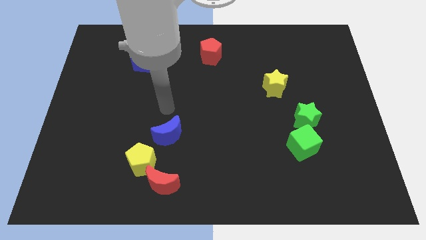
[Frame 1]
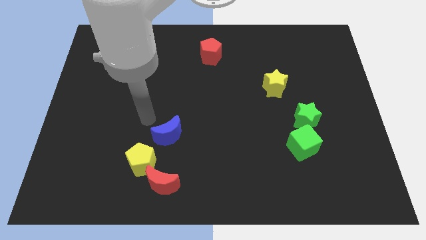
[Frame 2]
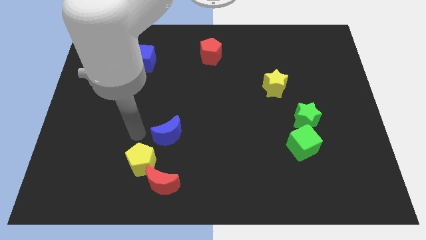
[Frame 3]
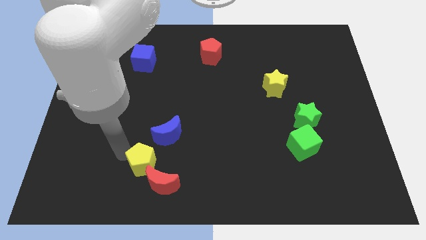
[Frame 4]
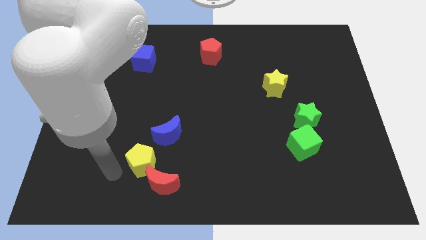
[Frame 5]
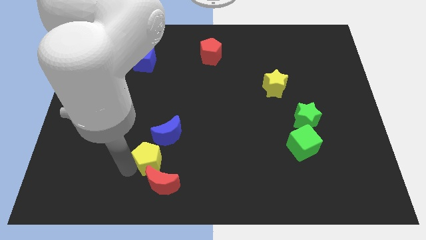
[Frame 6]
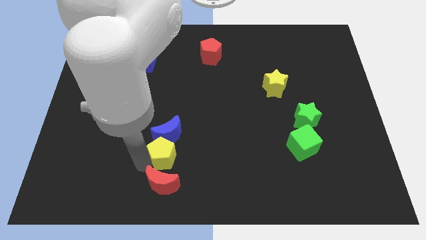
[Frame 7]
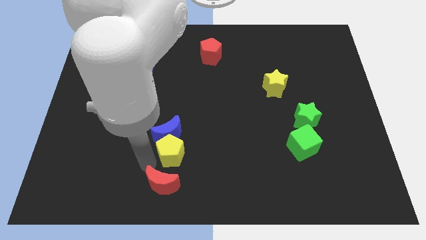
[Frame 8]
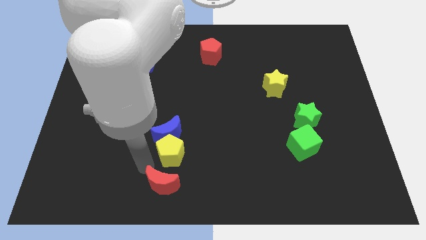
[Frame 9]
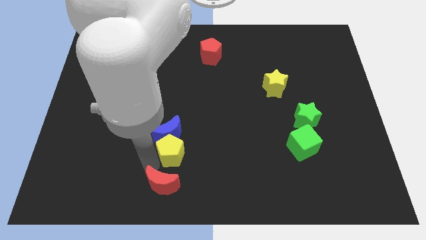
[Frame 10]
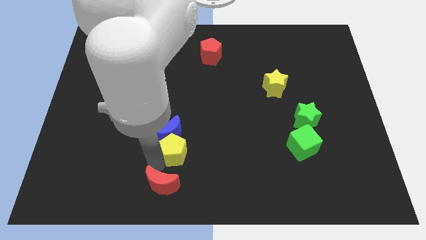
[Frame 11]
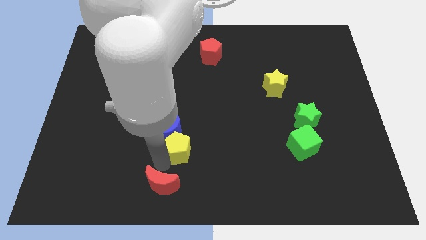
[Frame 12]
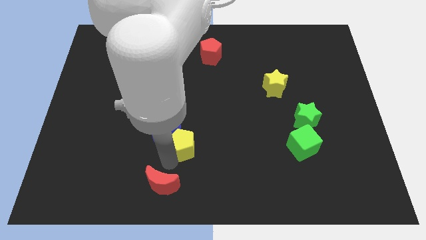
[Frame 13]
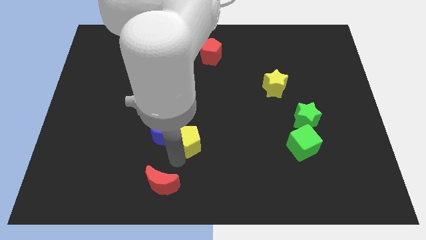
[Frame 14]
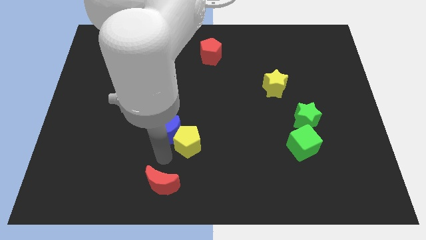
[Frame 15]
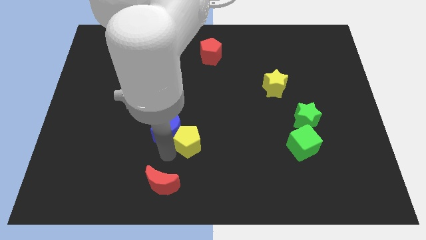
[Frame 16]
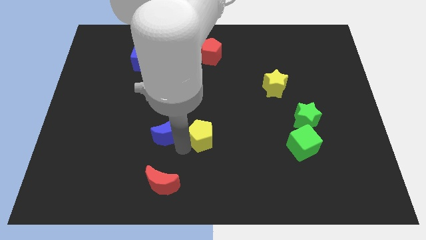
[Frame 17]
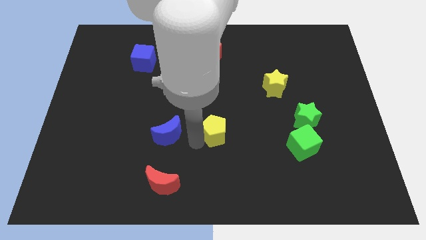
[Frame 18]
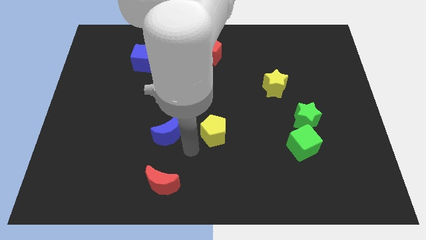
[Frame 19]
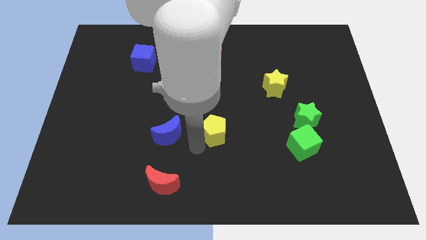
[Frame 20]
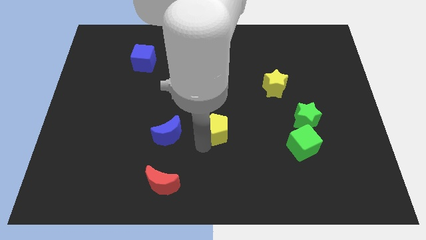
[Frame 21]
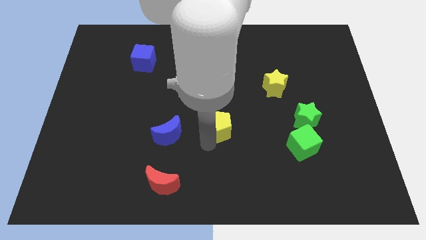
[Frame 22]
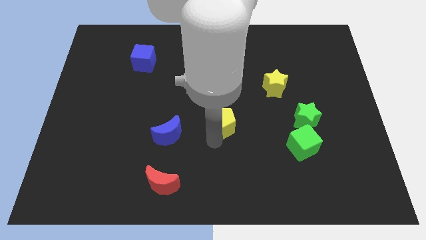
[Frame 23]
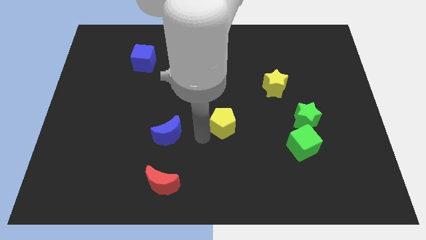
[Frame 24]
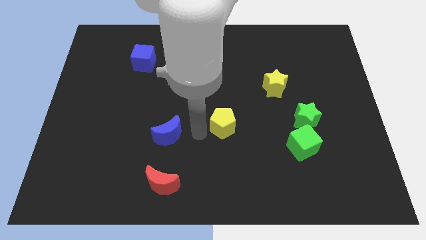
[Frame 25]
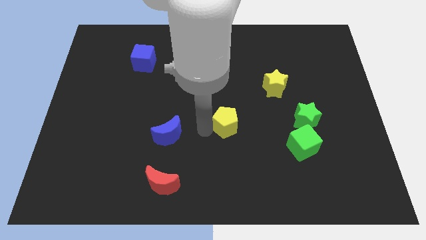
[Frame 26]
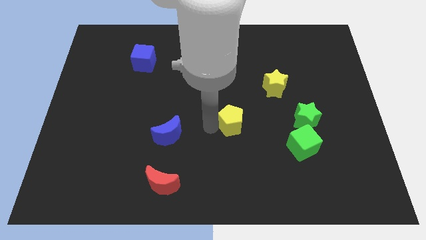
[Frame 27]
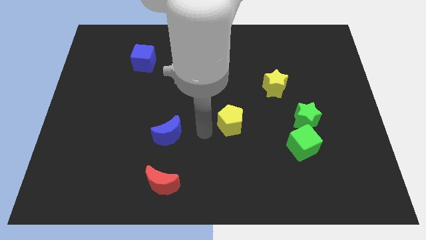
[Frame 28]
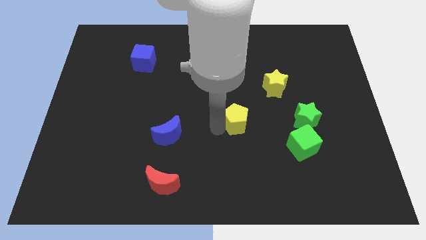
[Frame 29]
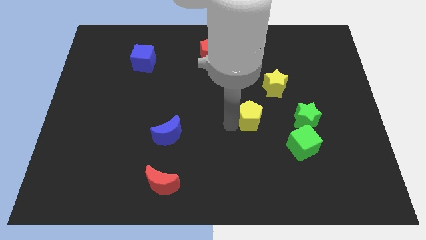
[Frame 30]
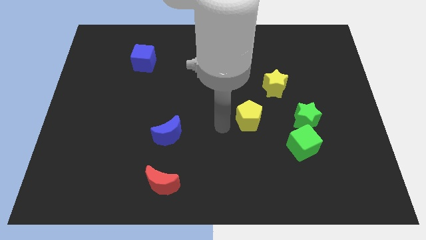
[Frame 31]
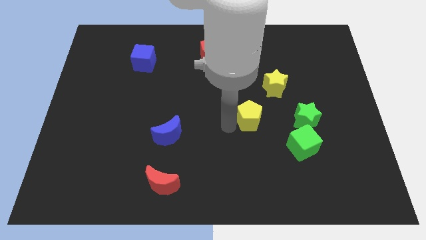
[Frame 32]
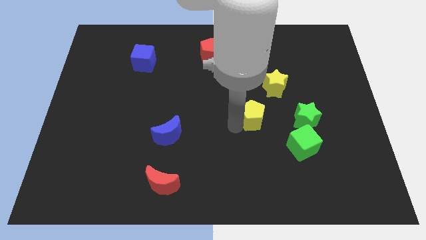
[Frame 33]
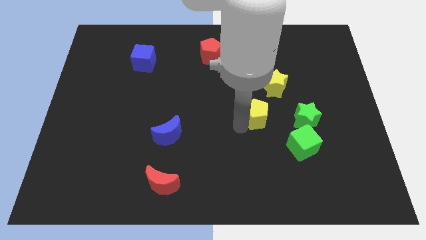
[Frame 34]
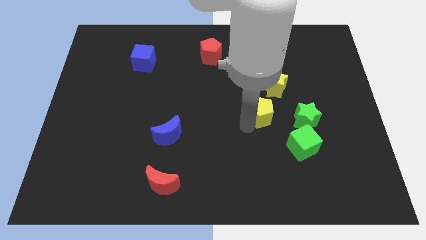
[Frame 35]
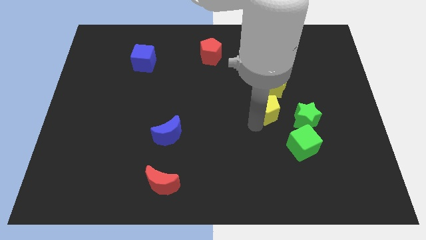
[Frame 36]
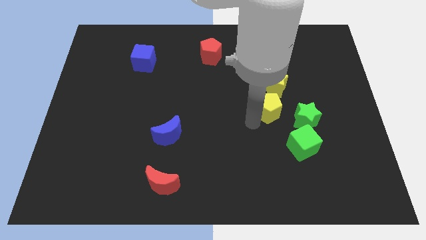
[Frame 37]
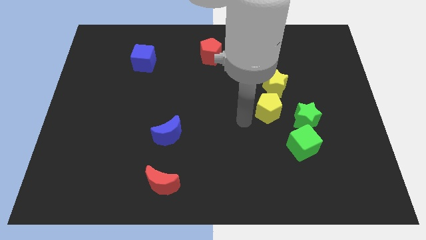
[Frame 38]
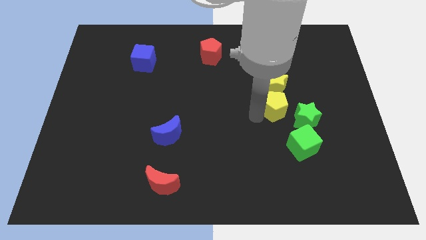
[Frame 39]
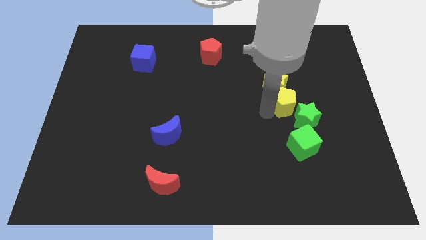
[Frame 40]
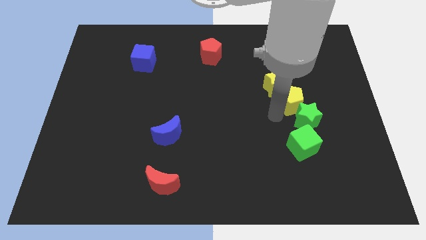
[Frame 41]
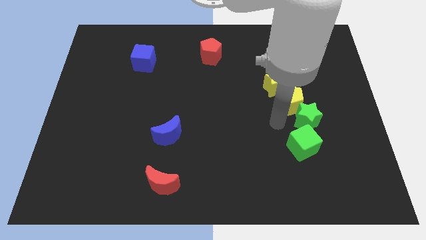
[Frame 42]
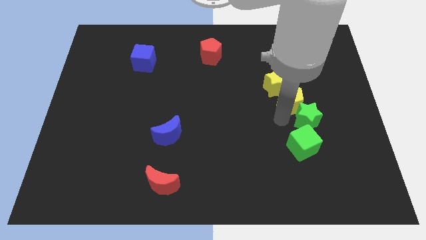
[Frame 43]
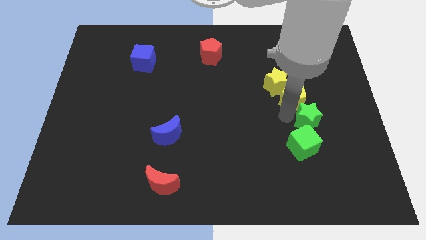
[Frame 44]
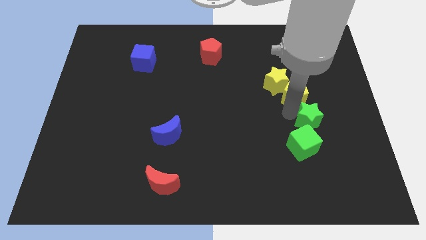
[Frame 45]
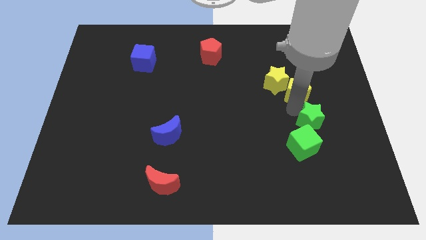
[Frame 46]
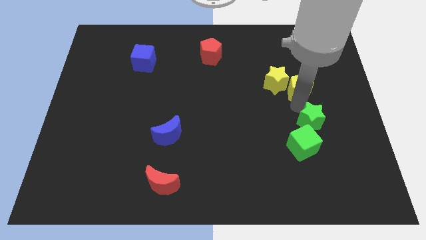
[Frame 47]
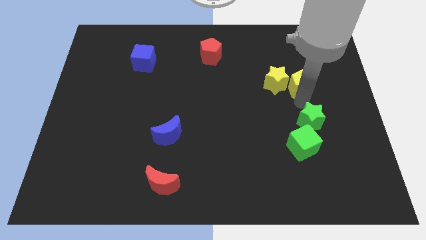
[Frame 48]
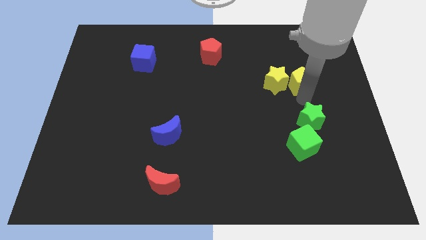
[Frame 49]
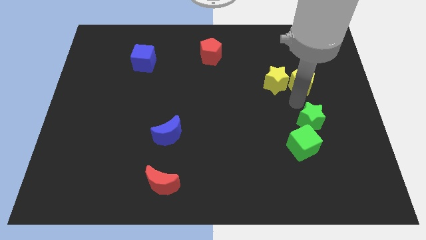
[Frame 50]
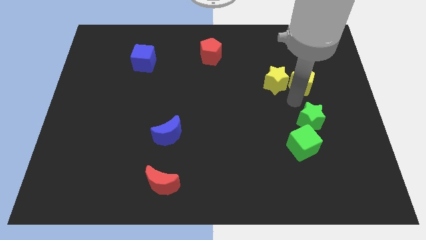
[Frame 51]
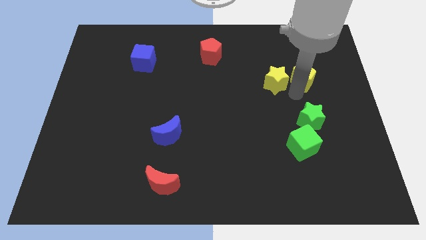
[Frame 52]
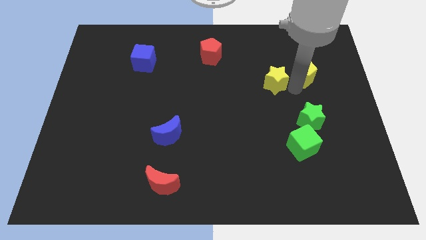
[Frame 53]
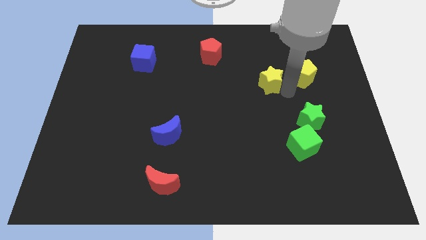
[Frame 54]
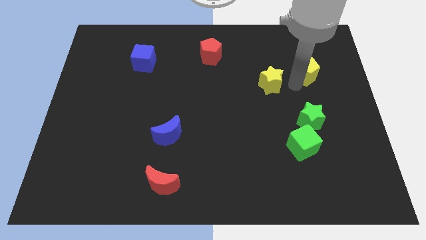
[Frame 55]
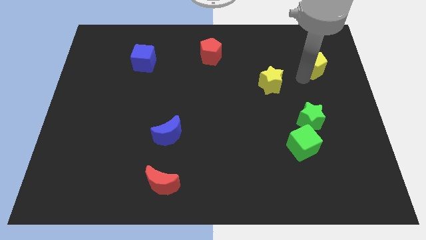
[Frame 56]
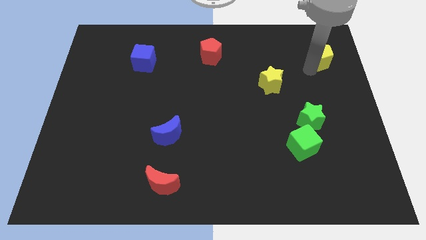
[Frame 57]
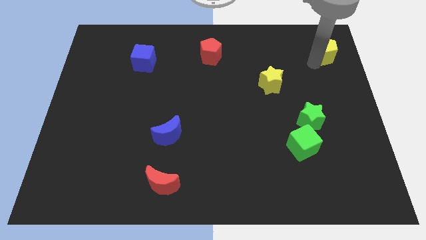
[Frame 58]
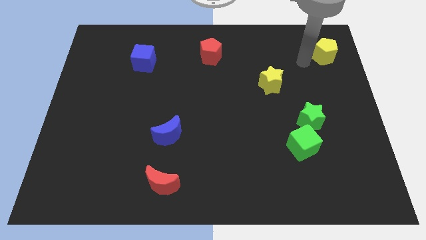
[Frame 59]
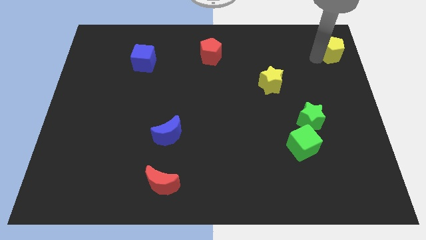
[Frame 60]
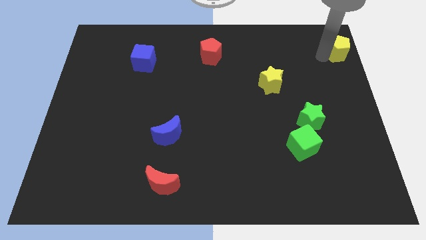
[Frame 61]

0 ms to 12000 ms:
push the yellow pentagon to the upper right corner

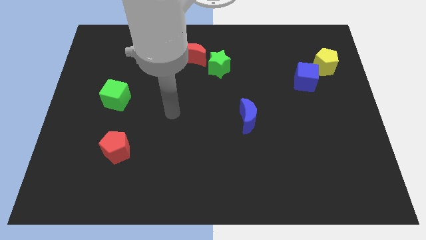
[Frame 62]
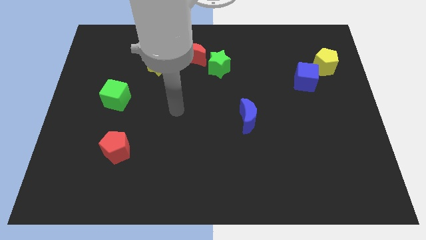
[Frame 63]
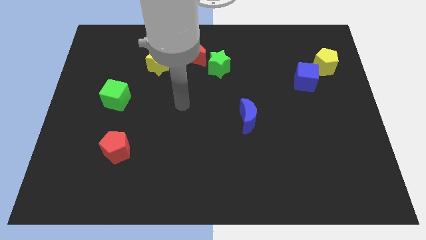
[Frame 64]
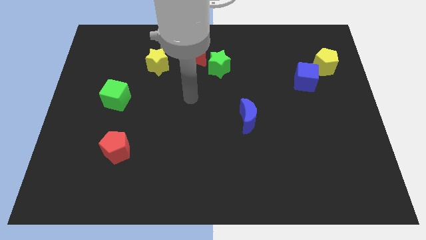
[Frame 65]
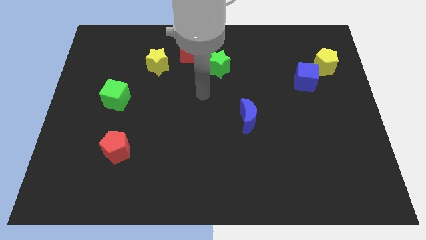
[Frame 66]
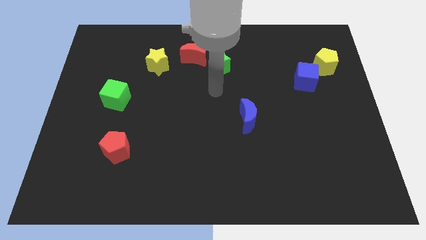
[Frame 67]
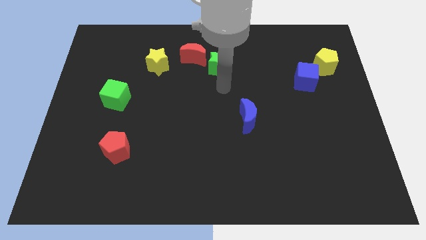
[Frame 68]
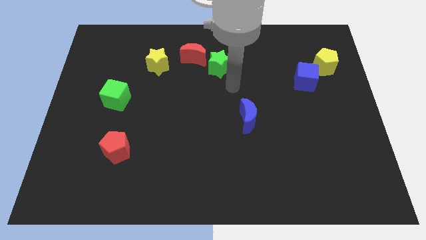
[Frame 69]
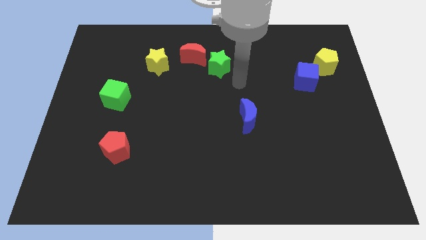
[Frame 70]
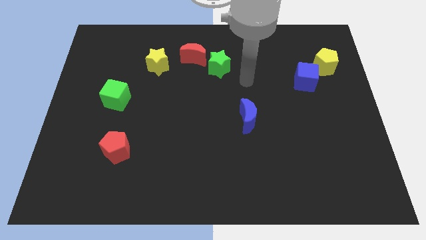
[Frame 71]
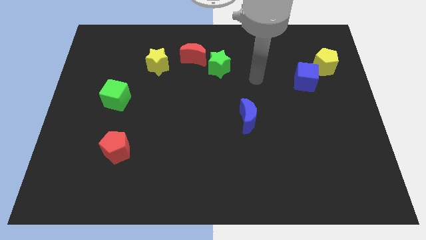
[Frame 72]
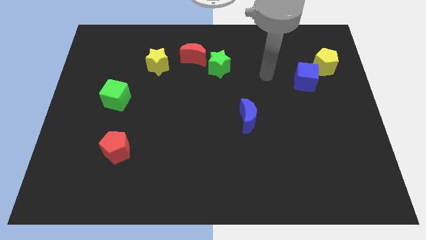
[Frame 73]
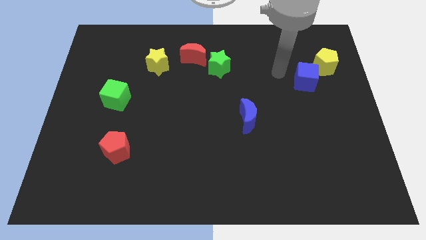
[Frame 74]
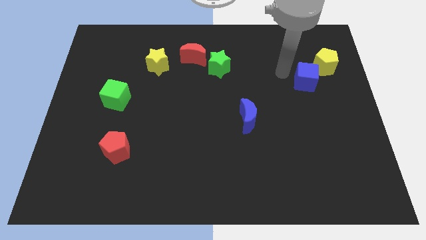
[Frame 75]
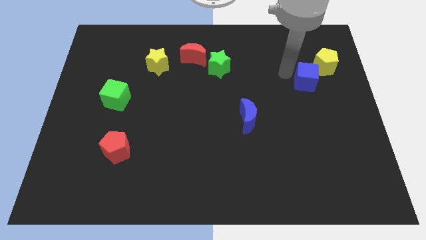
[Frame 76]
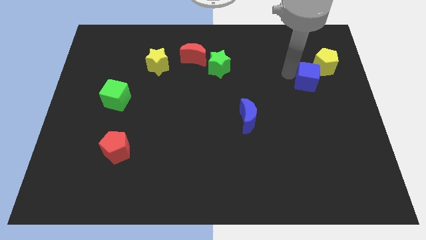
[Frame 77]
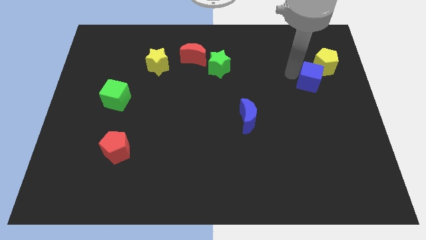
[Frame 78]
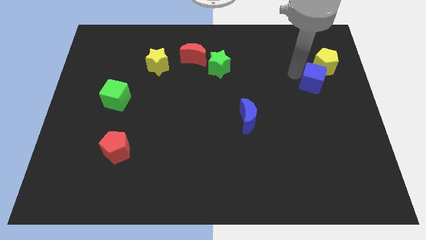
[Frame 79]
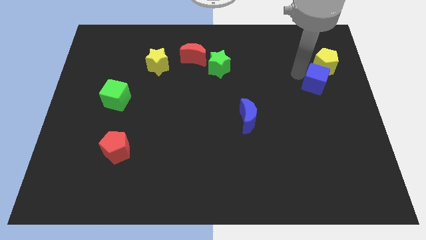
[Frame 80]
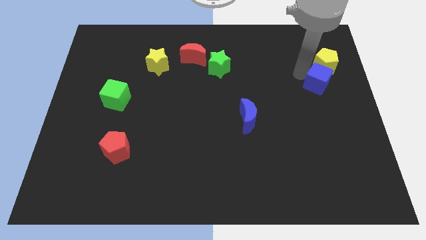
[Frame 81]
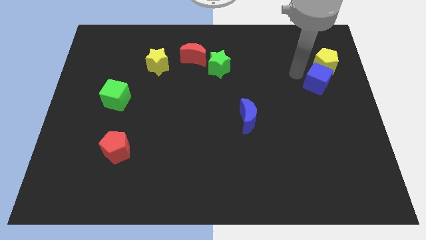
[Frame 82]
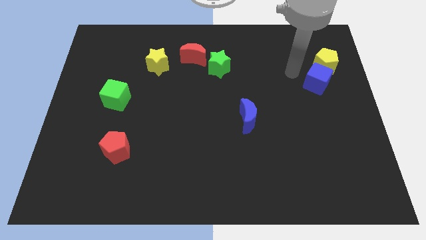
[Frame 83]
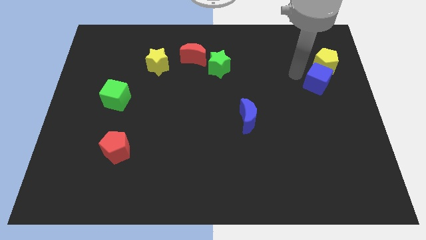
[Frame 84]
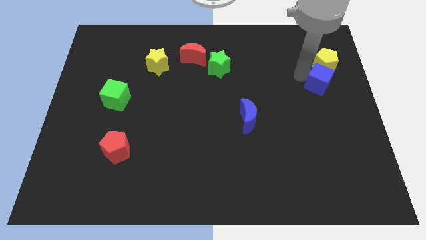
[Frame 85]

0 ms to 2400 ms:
move the blue cube to the right side of the board
